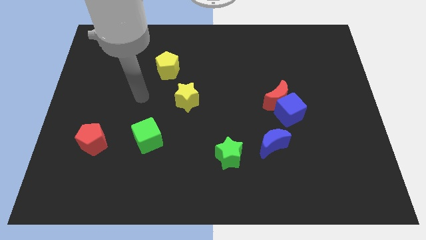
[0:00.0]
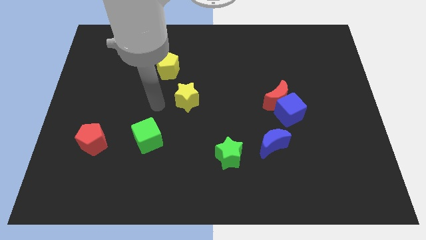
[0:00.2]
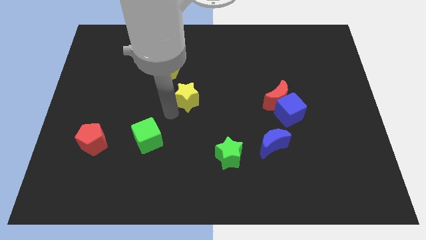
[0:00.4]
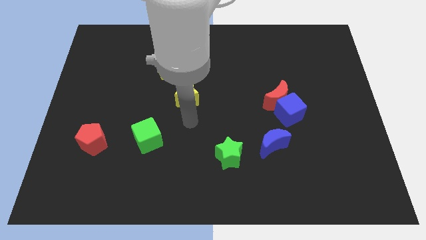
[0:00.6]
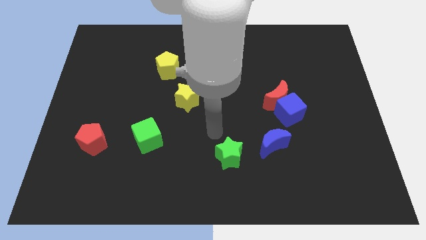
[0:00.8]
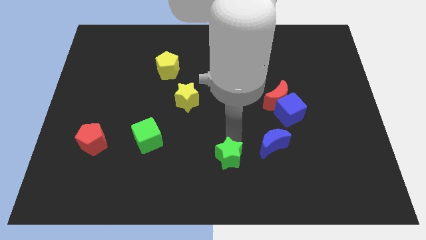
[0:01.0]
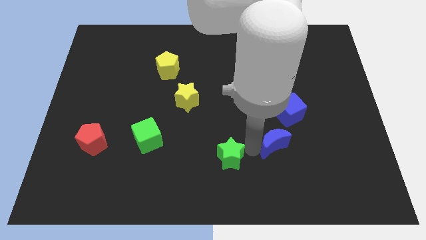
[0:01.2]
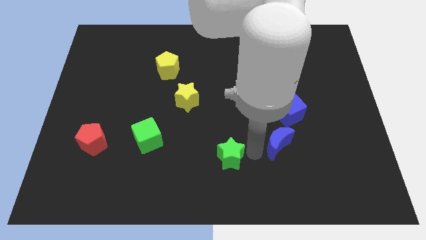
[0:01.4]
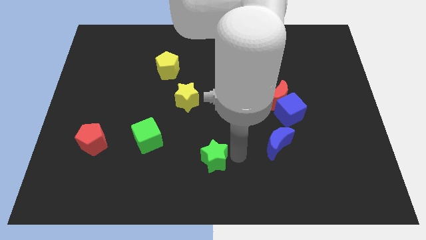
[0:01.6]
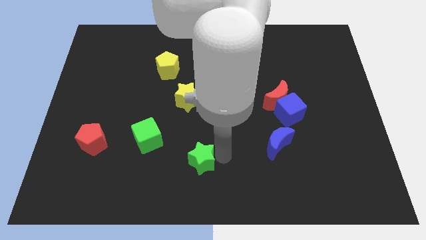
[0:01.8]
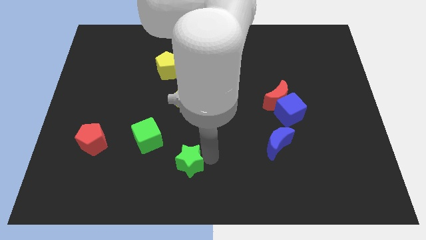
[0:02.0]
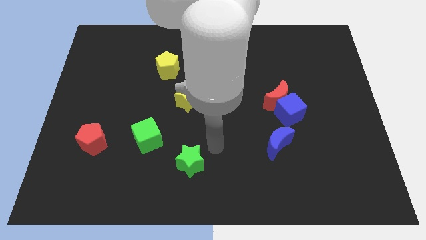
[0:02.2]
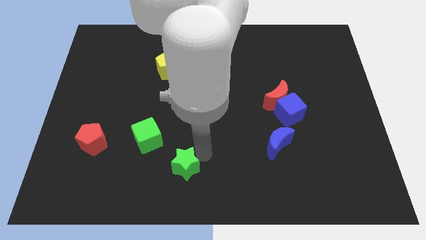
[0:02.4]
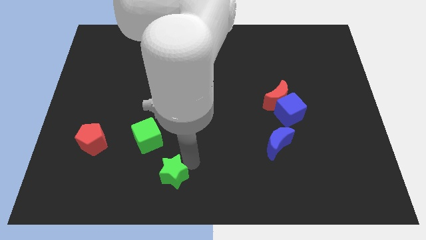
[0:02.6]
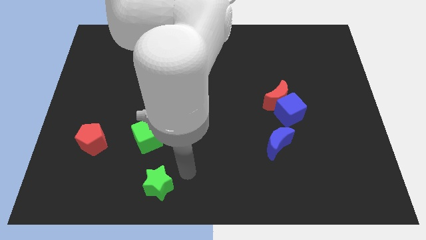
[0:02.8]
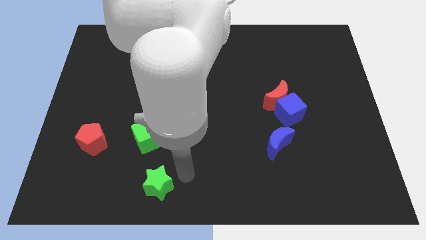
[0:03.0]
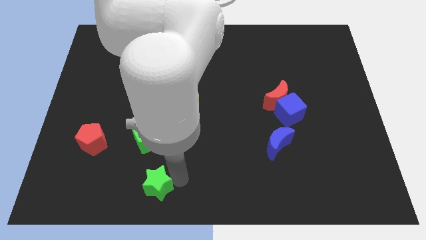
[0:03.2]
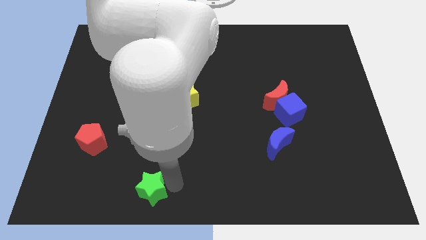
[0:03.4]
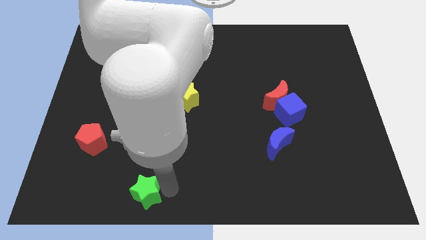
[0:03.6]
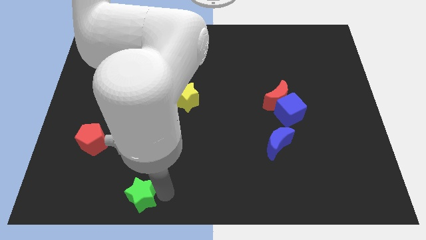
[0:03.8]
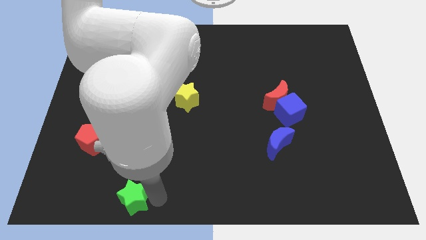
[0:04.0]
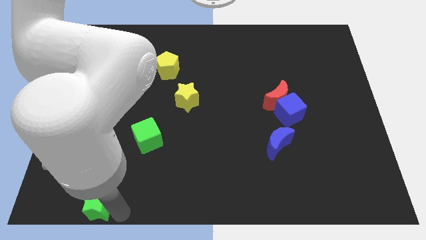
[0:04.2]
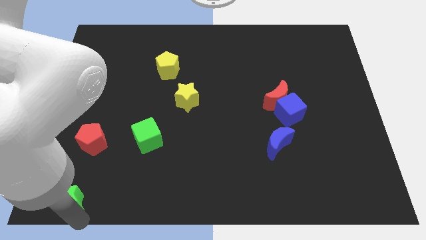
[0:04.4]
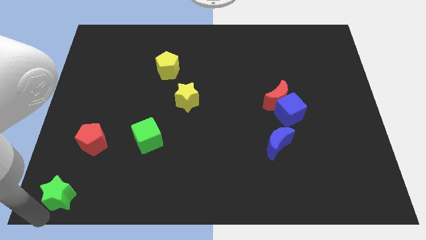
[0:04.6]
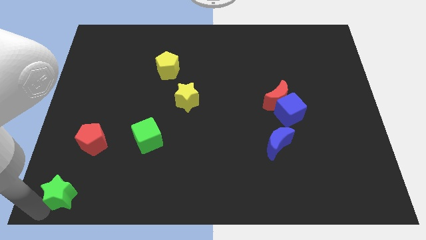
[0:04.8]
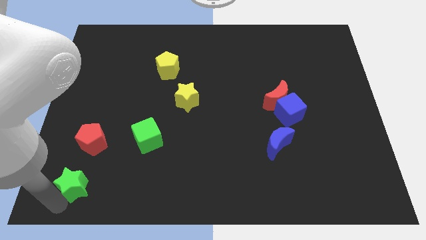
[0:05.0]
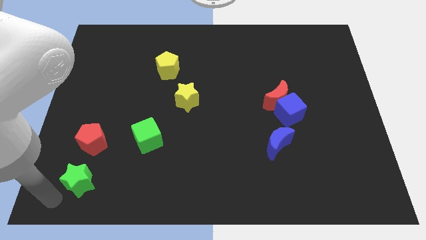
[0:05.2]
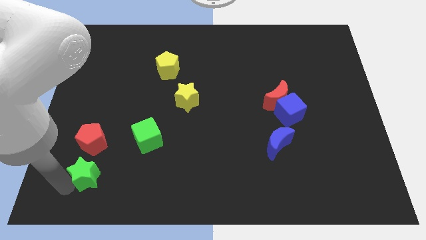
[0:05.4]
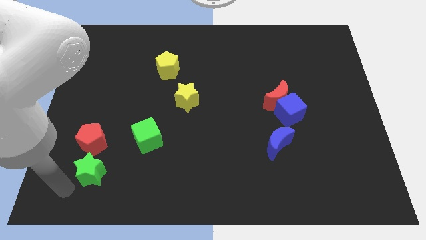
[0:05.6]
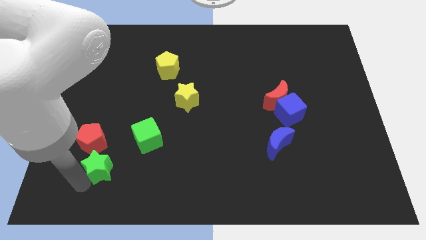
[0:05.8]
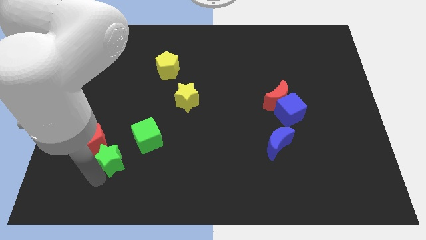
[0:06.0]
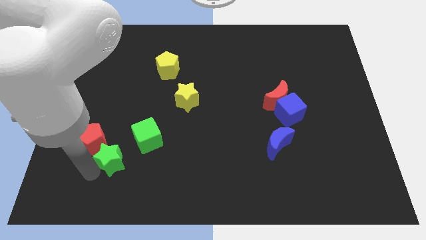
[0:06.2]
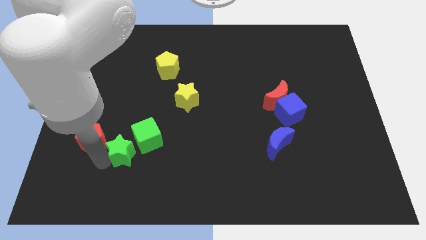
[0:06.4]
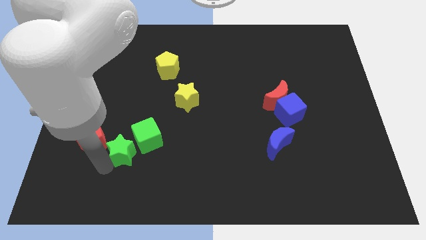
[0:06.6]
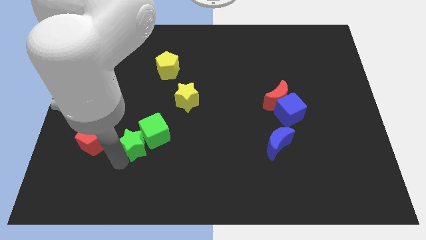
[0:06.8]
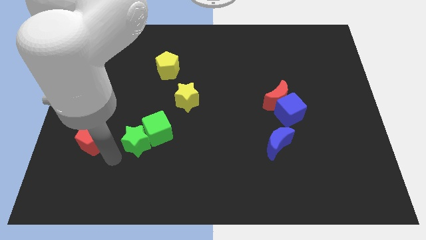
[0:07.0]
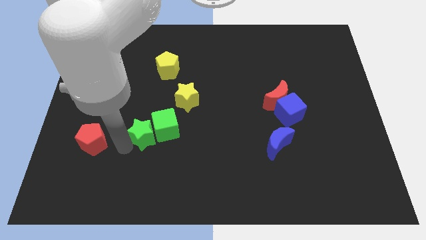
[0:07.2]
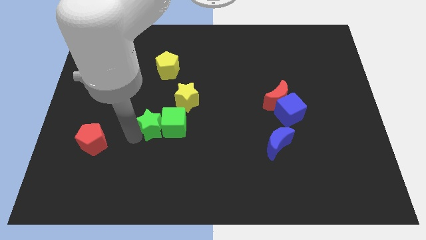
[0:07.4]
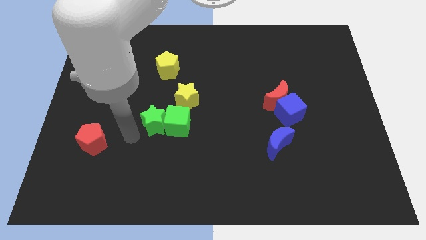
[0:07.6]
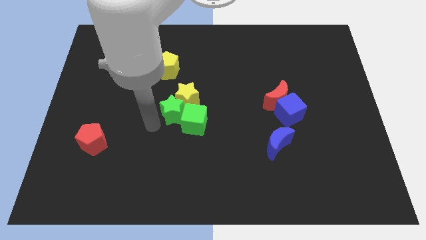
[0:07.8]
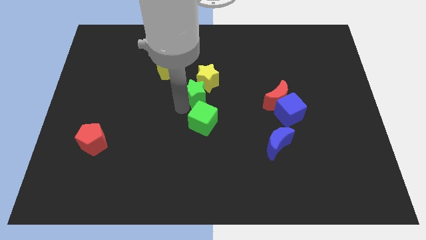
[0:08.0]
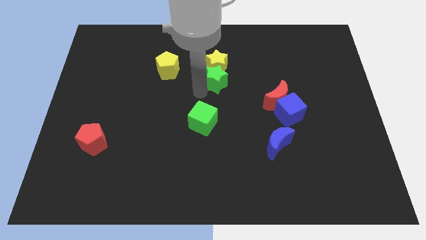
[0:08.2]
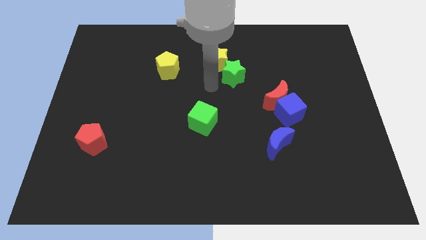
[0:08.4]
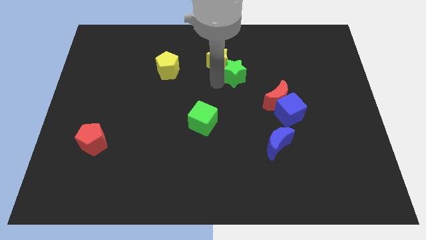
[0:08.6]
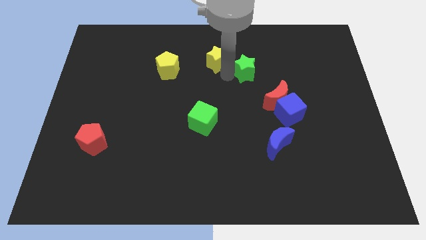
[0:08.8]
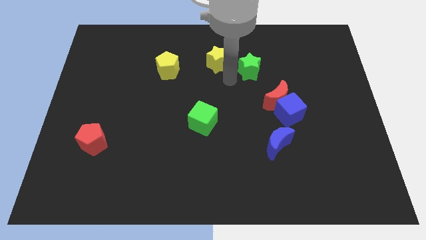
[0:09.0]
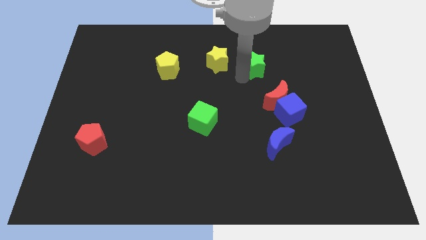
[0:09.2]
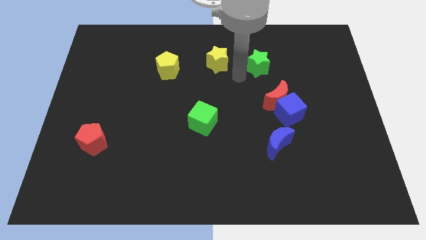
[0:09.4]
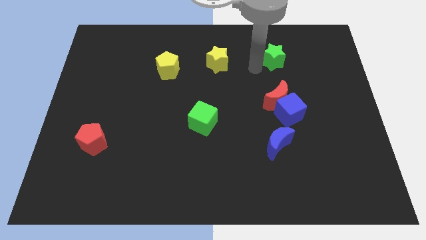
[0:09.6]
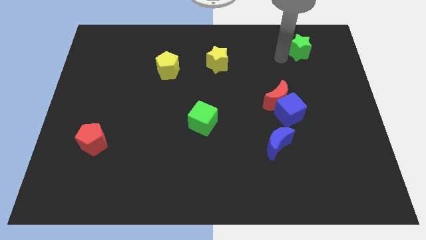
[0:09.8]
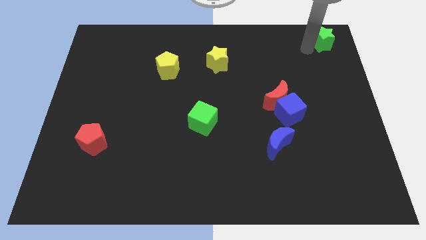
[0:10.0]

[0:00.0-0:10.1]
slide the green star to the top right of the board
